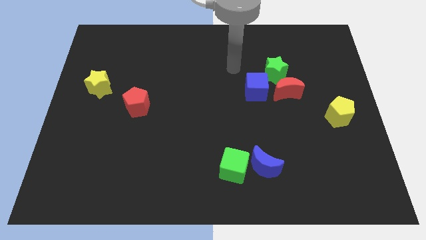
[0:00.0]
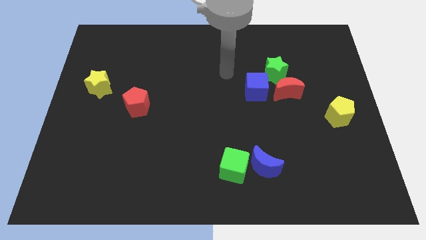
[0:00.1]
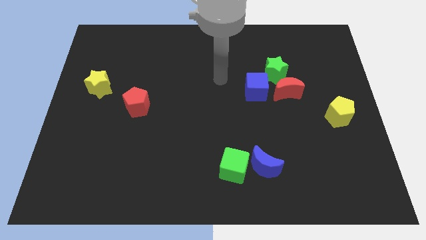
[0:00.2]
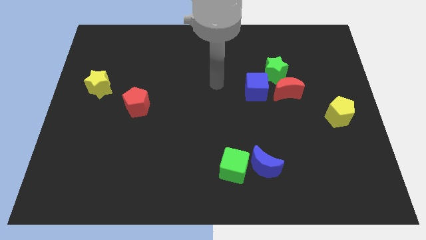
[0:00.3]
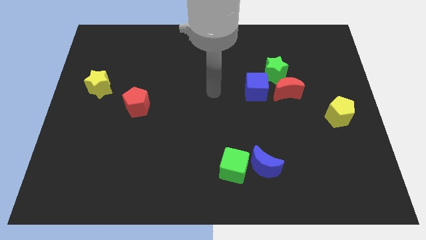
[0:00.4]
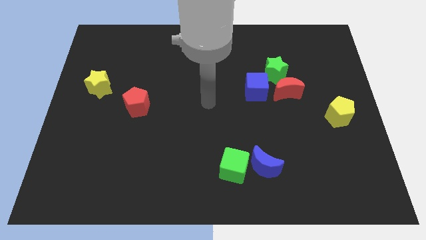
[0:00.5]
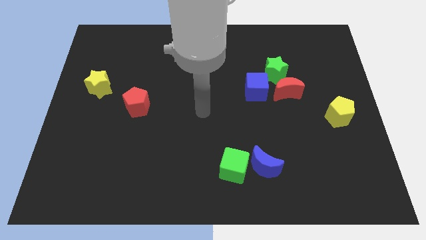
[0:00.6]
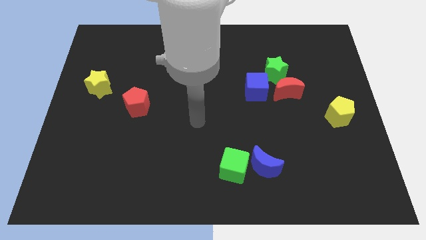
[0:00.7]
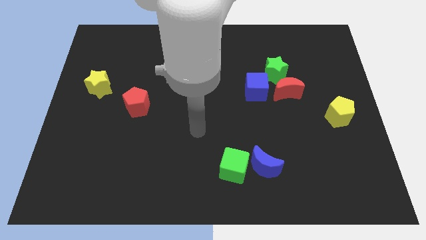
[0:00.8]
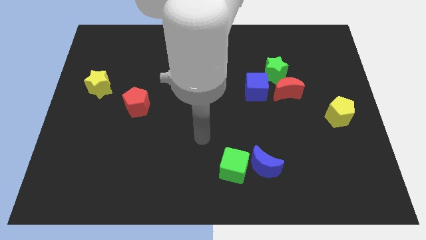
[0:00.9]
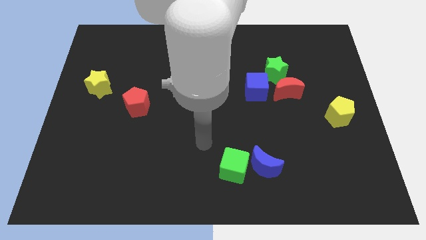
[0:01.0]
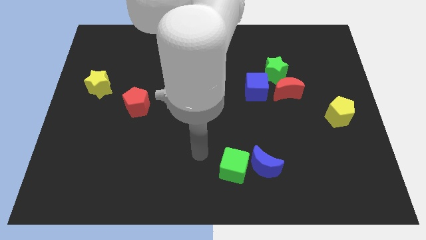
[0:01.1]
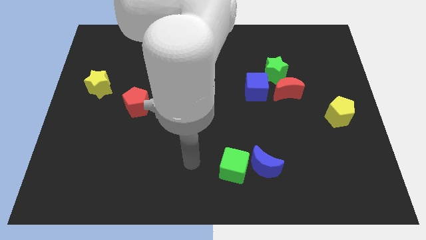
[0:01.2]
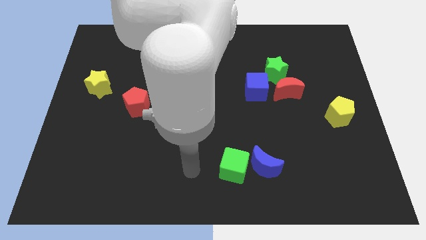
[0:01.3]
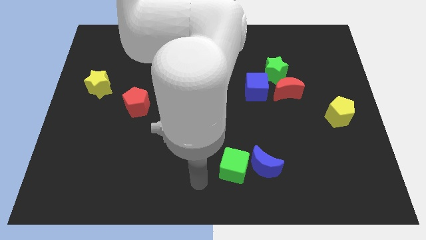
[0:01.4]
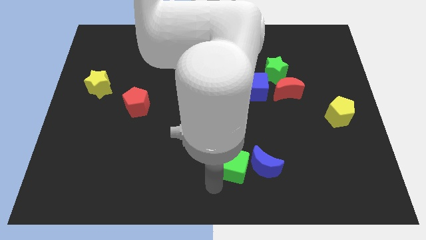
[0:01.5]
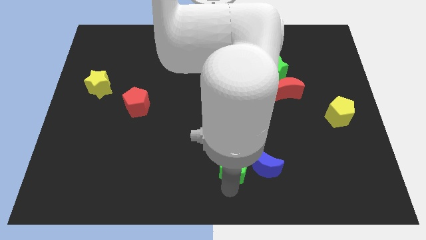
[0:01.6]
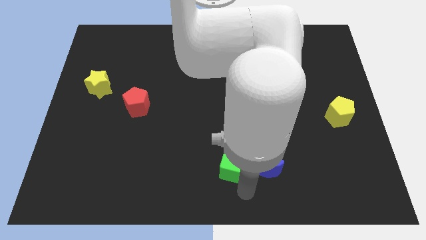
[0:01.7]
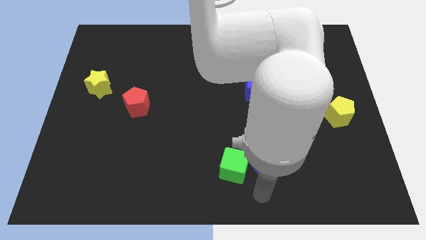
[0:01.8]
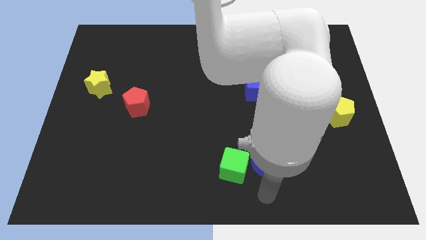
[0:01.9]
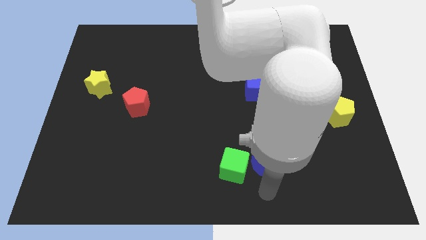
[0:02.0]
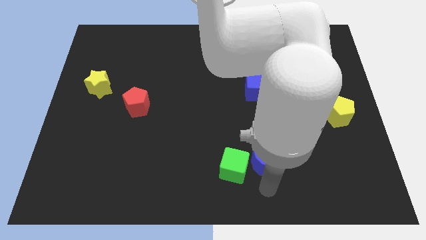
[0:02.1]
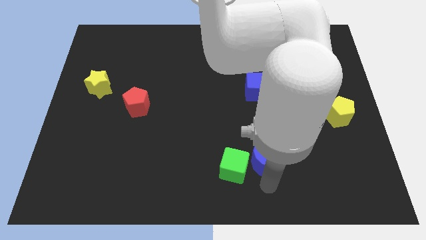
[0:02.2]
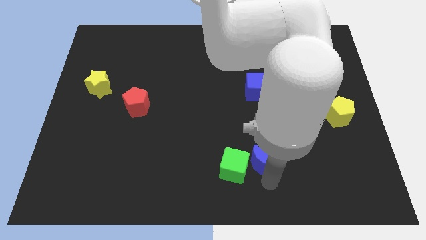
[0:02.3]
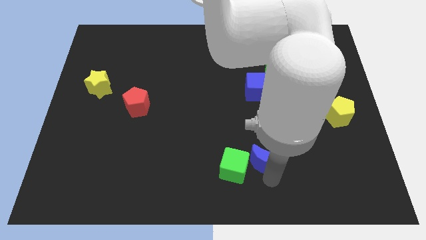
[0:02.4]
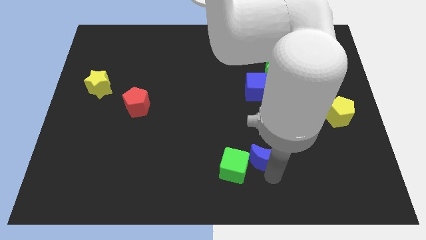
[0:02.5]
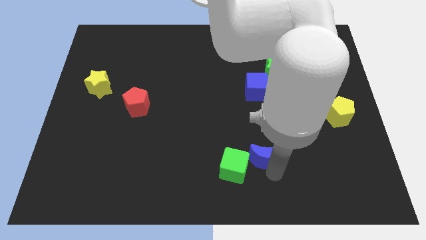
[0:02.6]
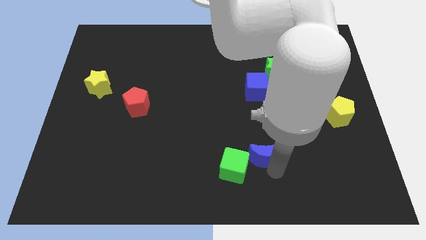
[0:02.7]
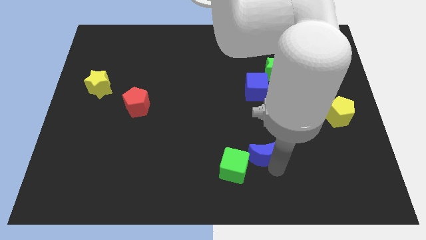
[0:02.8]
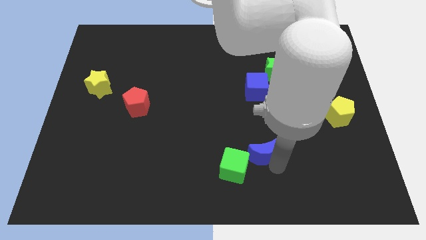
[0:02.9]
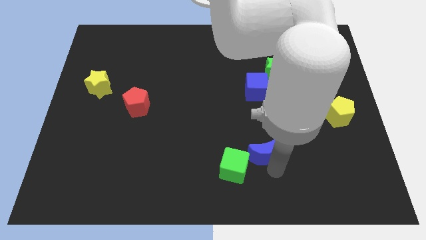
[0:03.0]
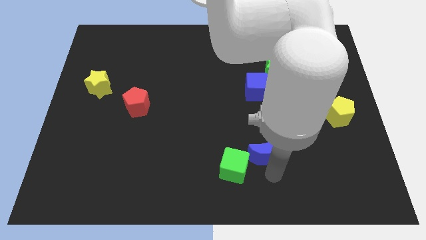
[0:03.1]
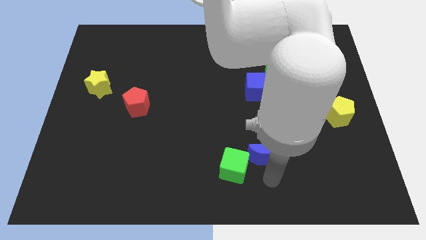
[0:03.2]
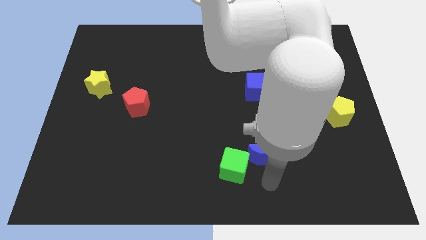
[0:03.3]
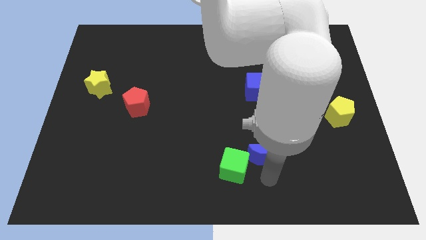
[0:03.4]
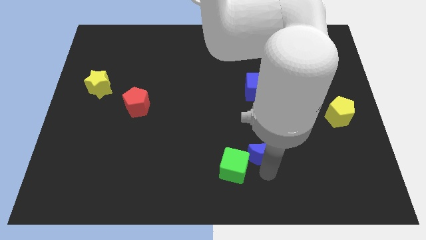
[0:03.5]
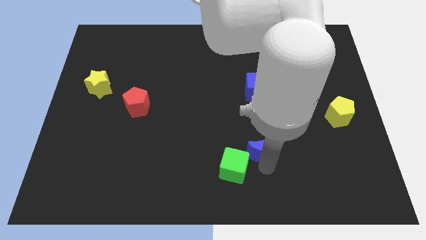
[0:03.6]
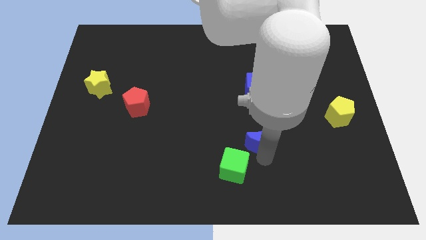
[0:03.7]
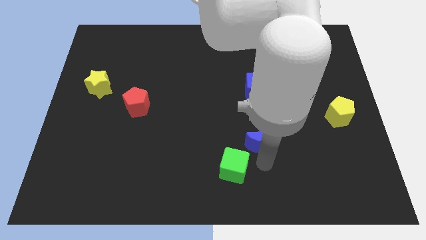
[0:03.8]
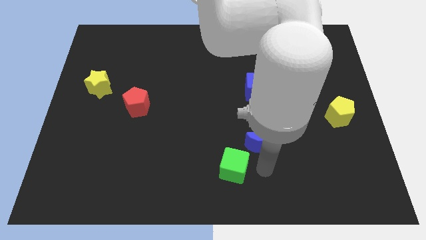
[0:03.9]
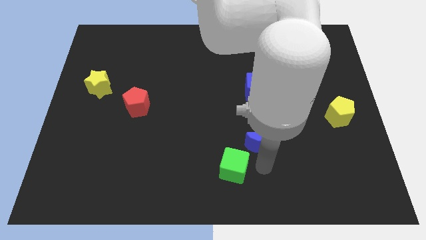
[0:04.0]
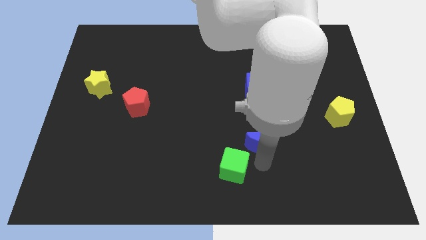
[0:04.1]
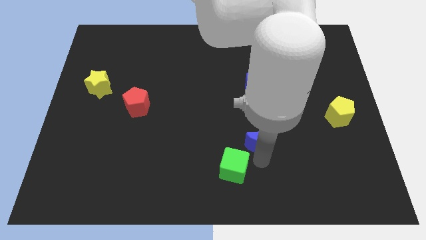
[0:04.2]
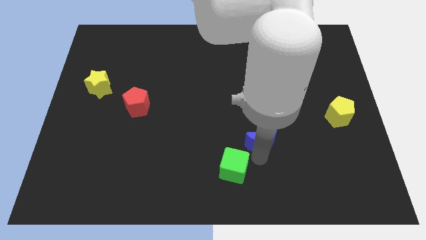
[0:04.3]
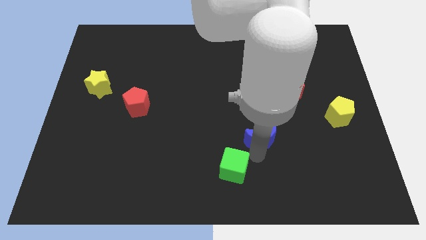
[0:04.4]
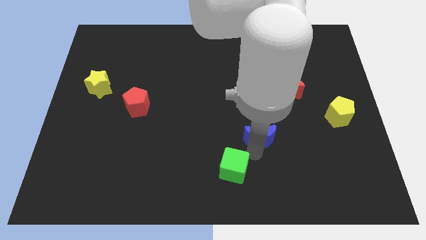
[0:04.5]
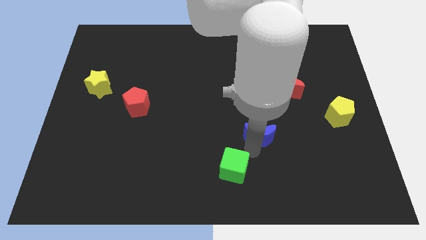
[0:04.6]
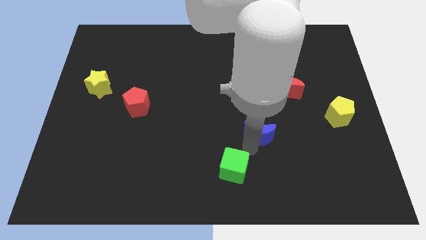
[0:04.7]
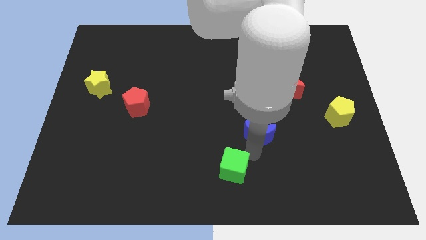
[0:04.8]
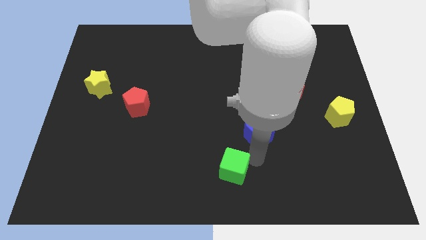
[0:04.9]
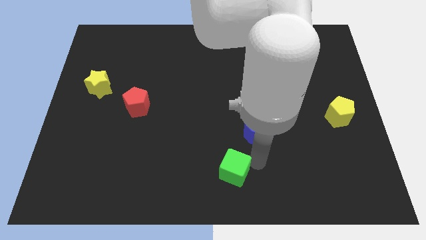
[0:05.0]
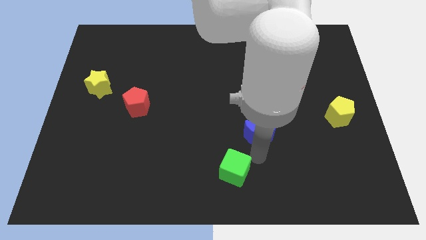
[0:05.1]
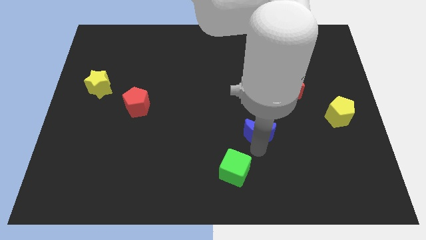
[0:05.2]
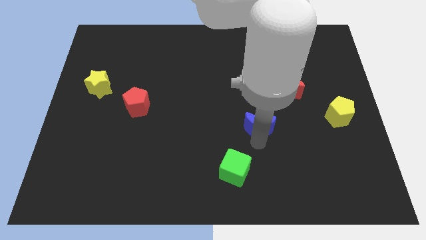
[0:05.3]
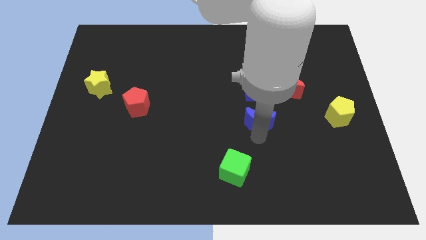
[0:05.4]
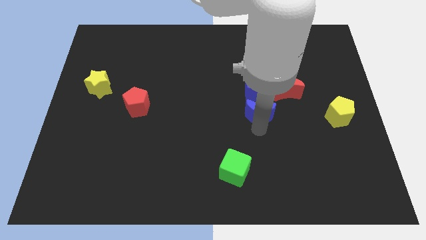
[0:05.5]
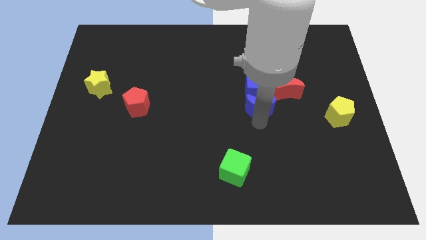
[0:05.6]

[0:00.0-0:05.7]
push the blue moon close to the blue cube

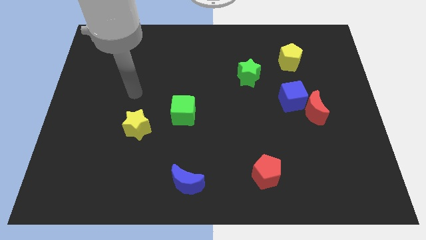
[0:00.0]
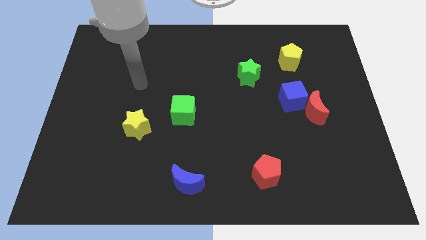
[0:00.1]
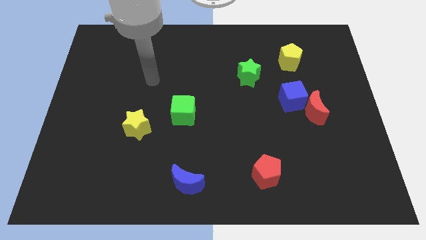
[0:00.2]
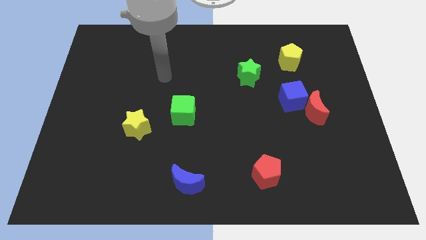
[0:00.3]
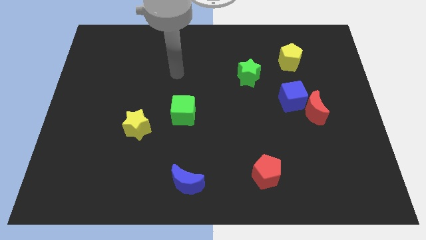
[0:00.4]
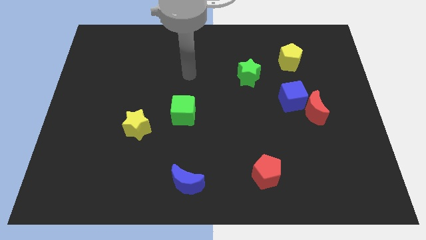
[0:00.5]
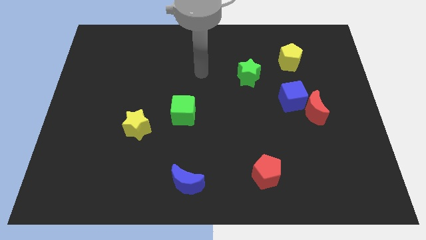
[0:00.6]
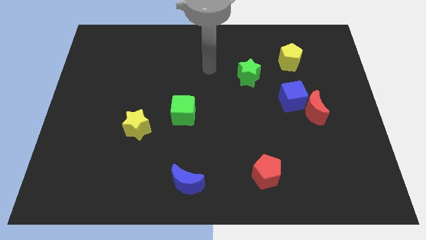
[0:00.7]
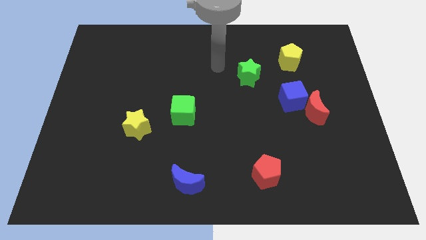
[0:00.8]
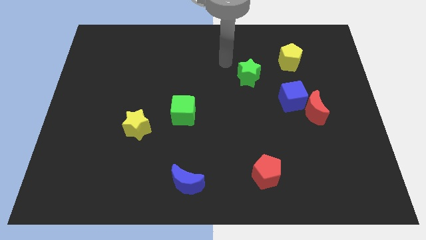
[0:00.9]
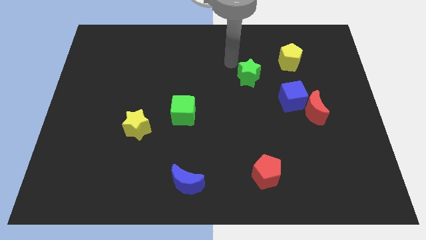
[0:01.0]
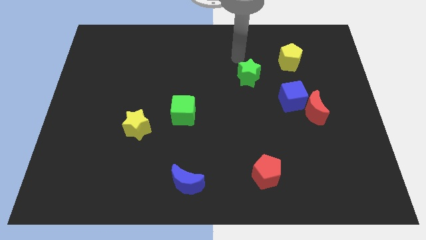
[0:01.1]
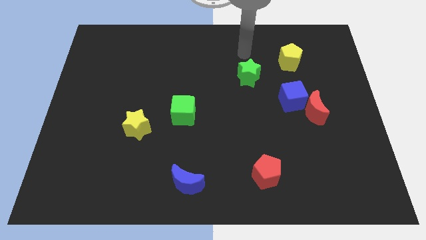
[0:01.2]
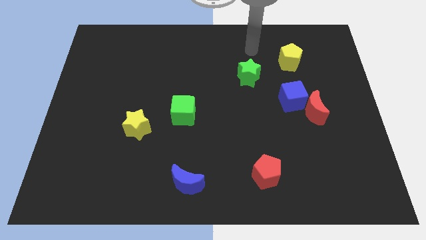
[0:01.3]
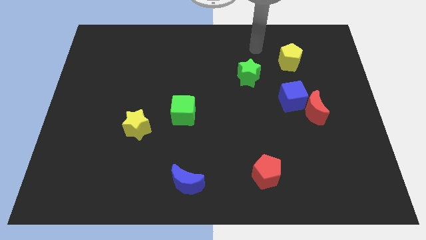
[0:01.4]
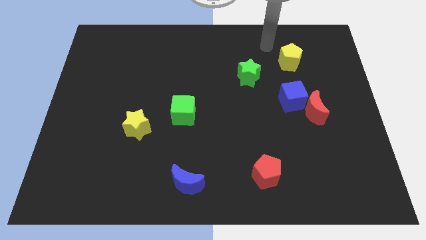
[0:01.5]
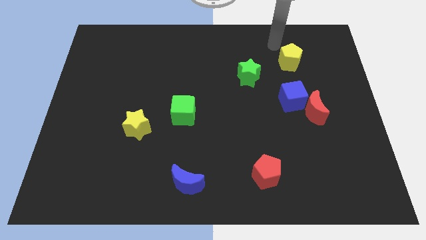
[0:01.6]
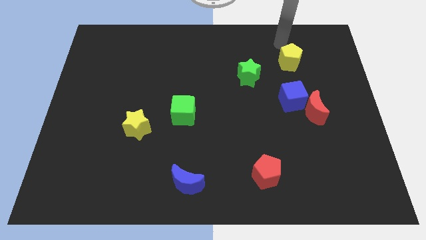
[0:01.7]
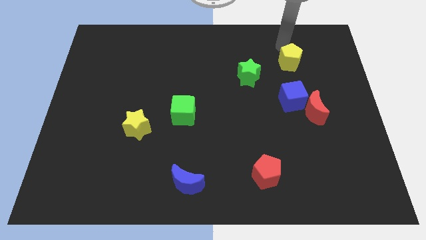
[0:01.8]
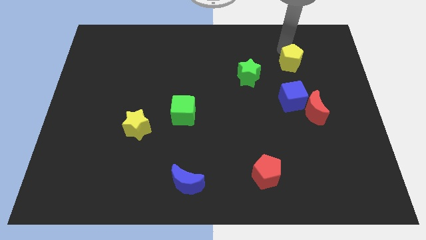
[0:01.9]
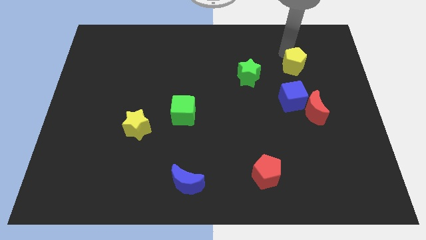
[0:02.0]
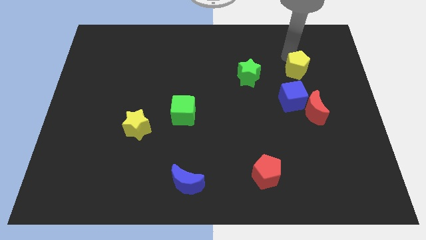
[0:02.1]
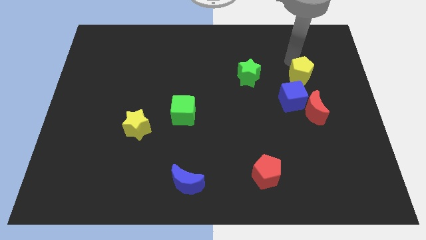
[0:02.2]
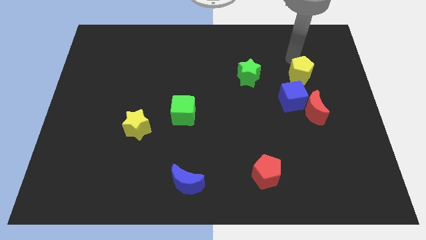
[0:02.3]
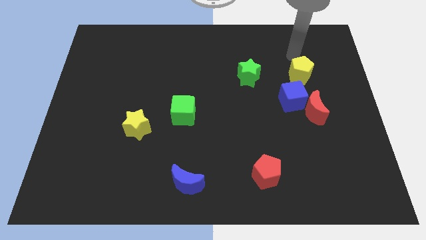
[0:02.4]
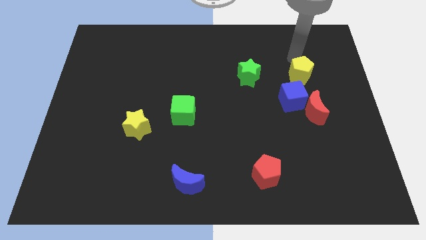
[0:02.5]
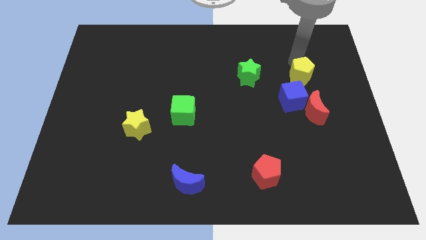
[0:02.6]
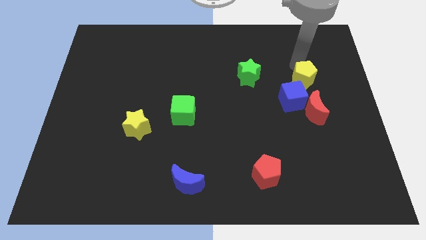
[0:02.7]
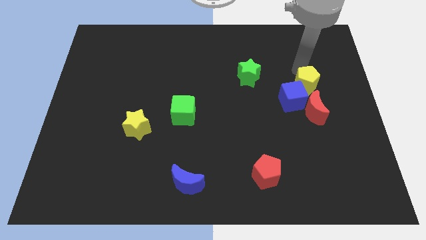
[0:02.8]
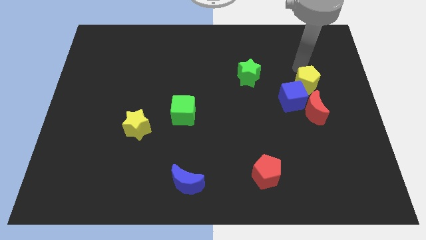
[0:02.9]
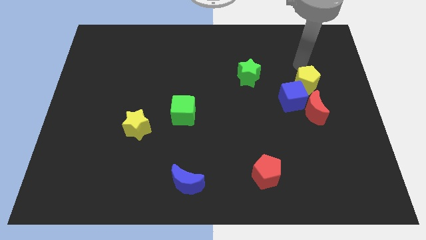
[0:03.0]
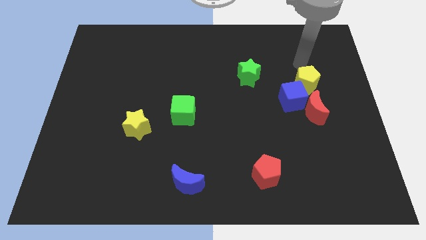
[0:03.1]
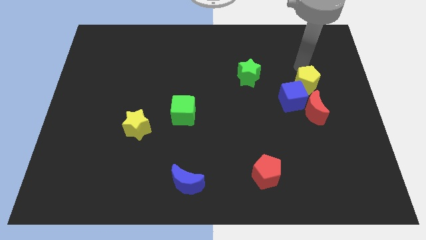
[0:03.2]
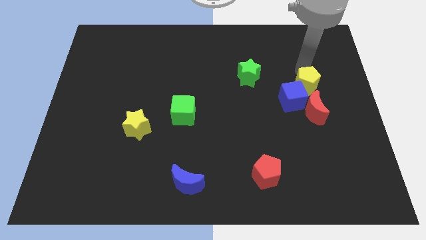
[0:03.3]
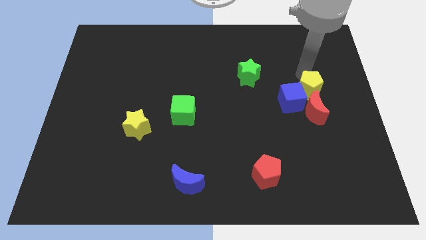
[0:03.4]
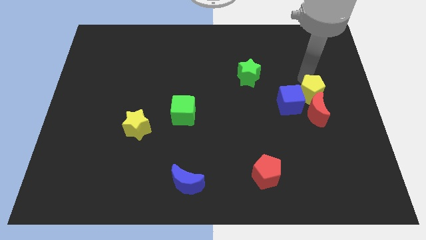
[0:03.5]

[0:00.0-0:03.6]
put the yellow pentagon close to the red moon
